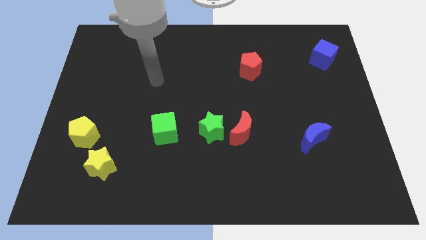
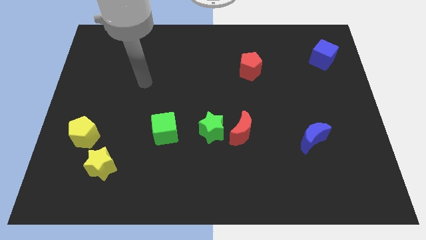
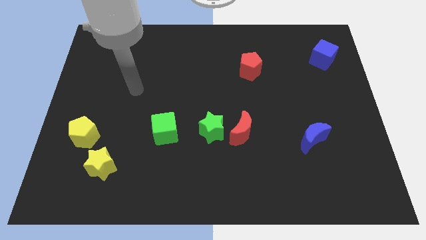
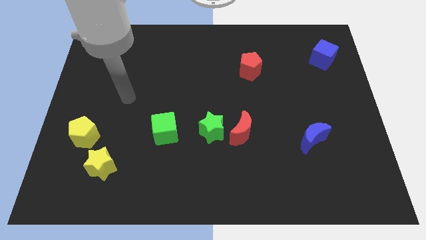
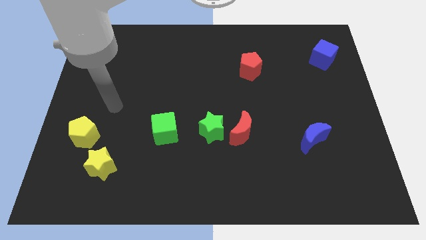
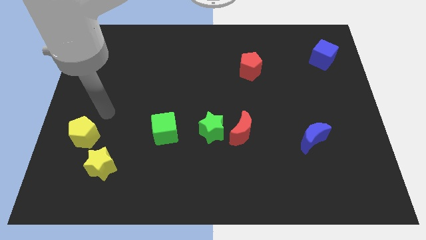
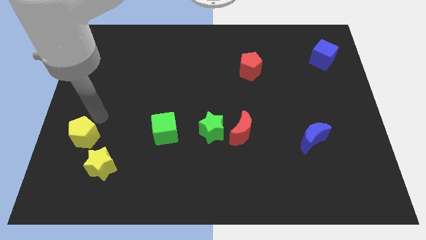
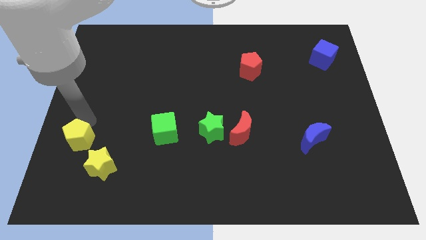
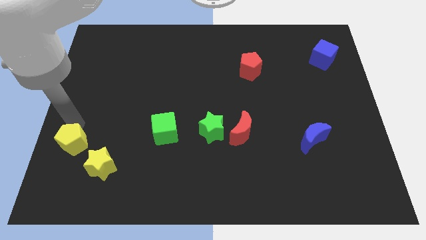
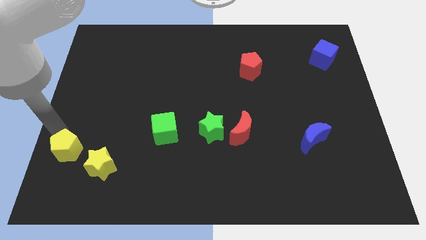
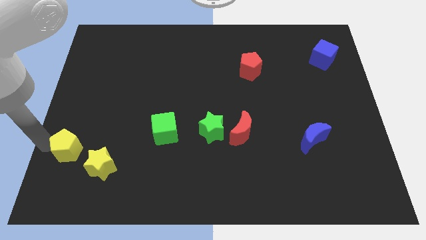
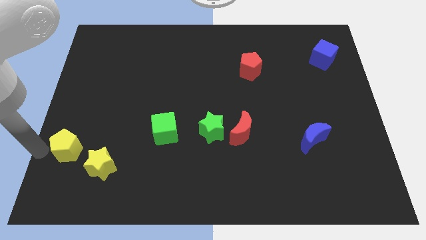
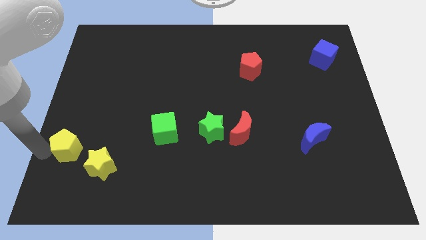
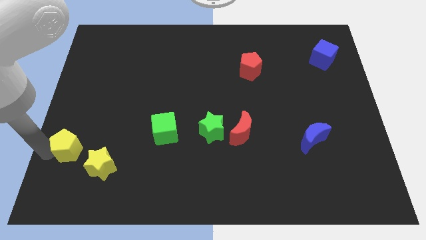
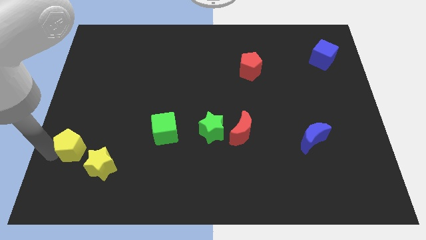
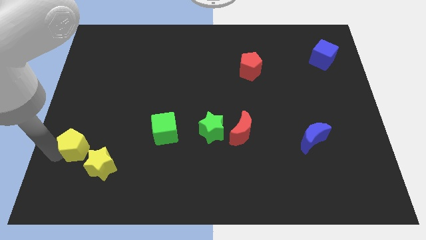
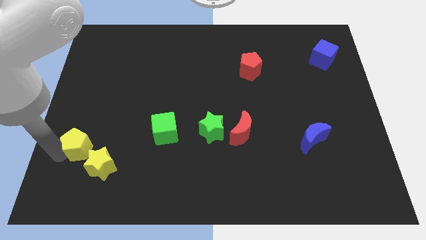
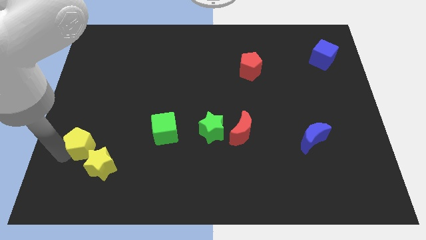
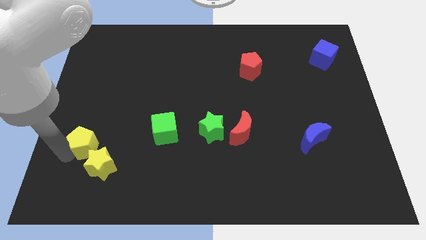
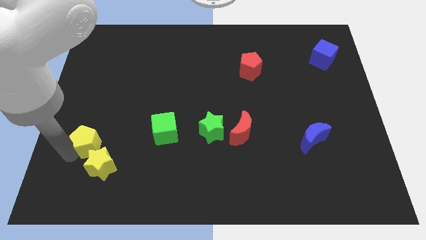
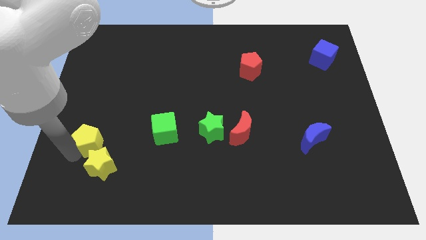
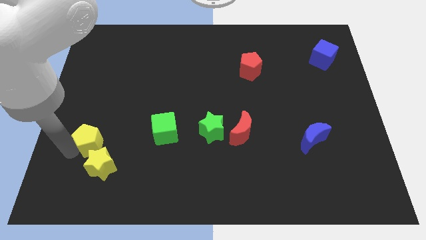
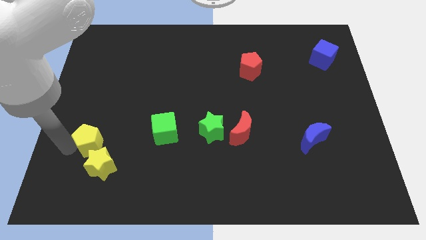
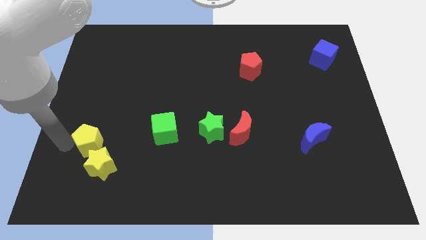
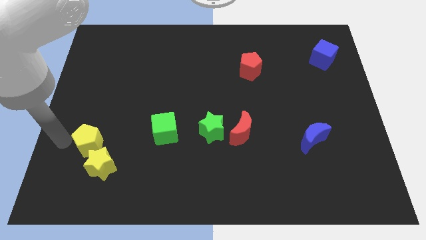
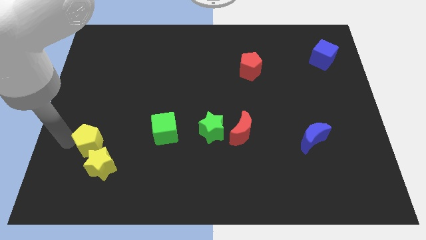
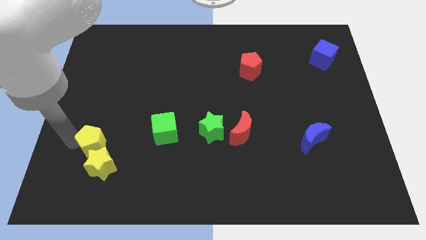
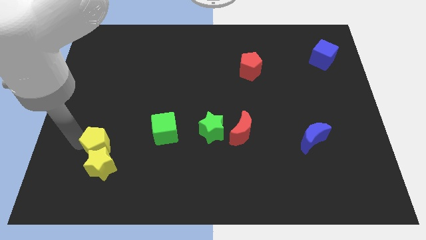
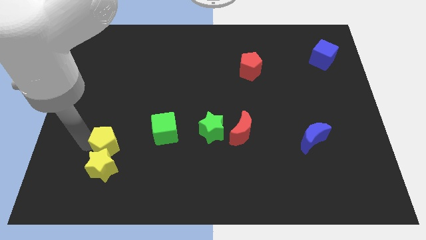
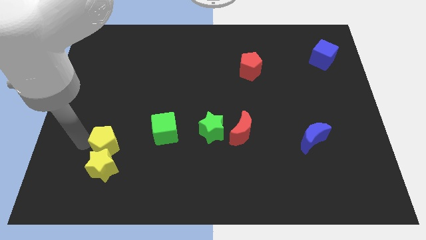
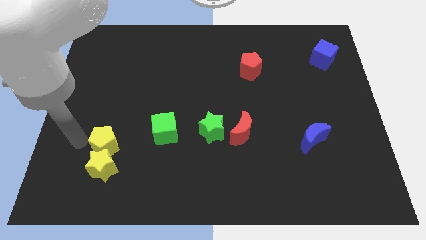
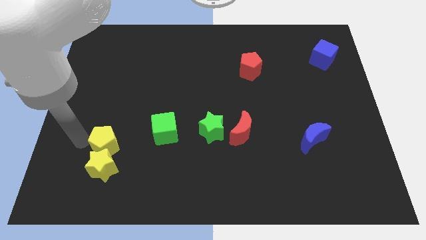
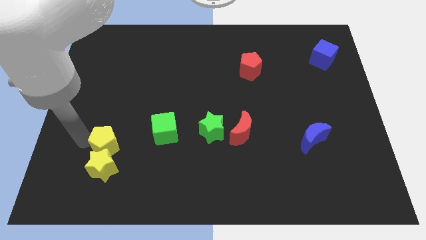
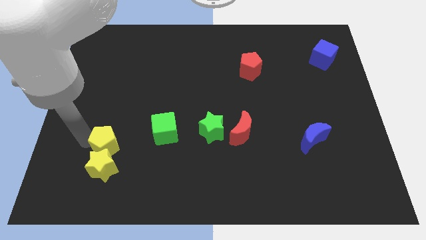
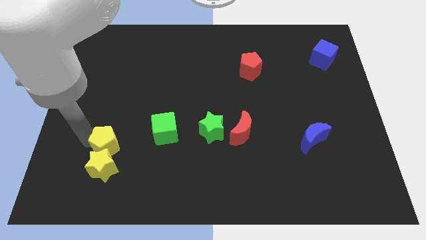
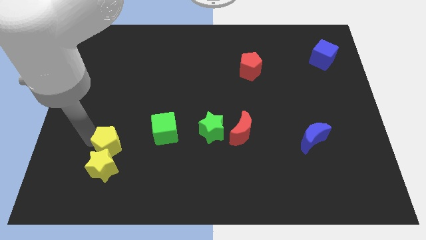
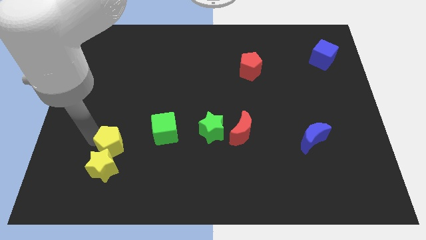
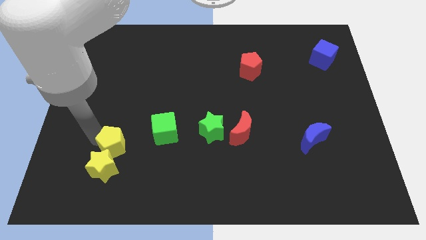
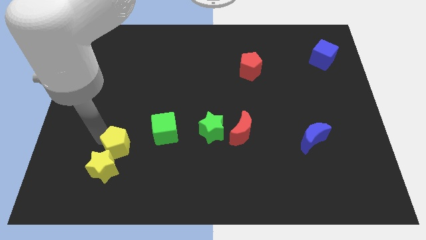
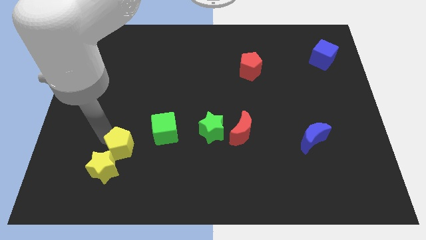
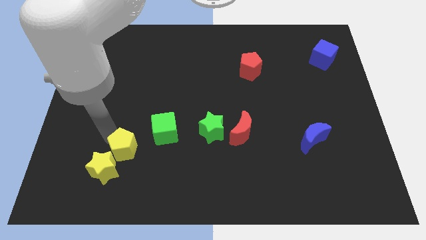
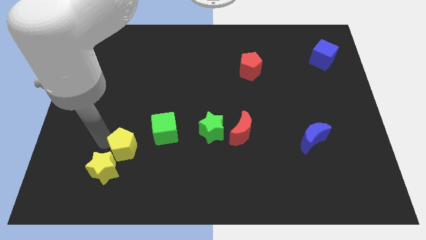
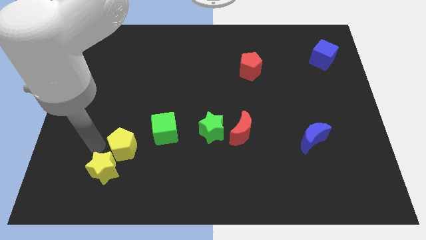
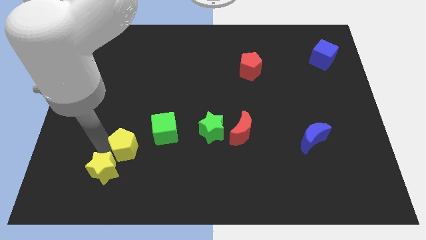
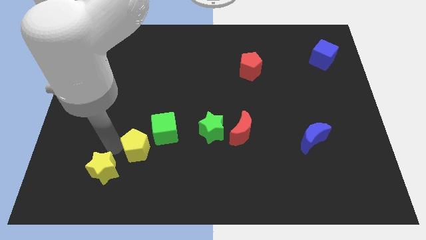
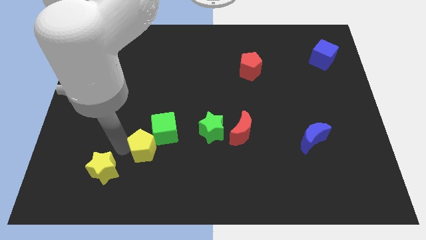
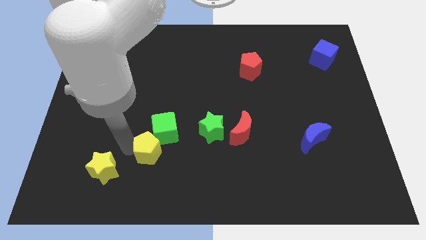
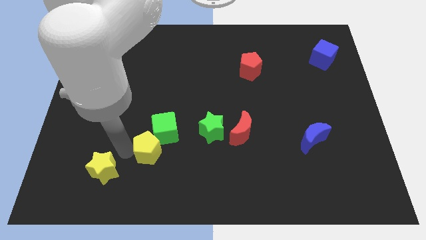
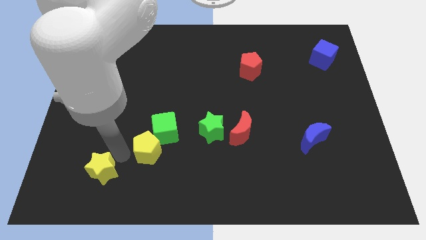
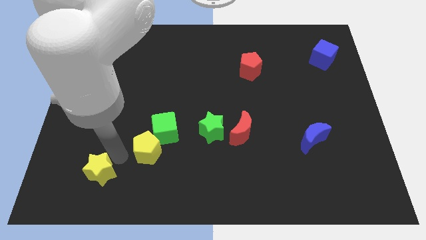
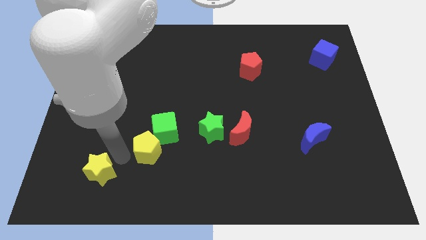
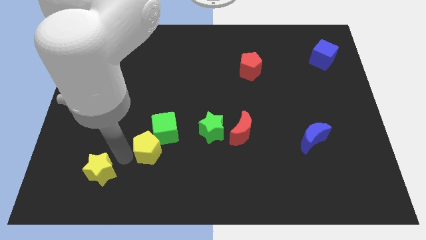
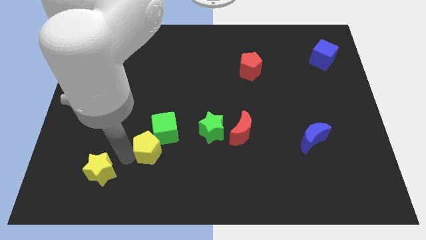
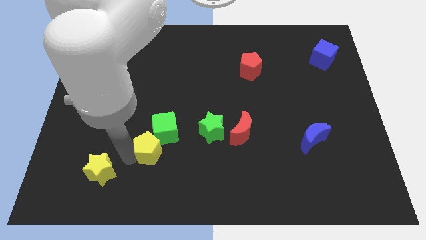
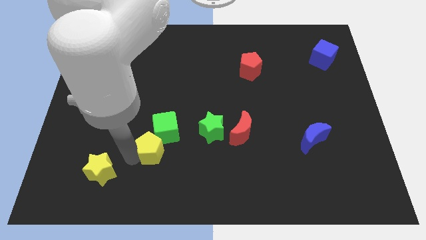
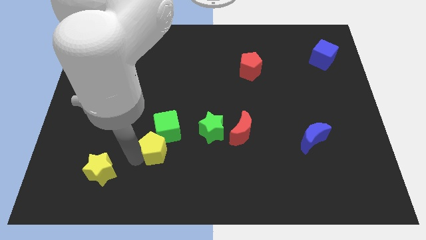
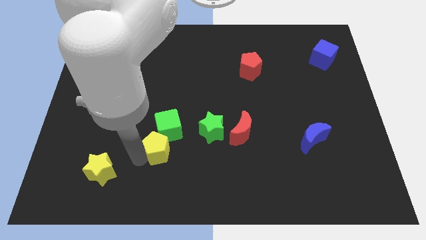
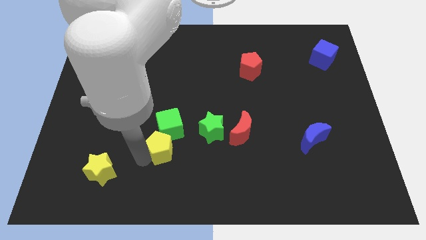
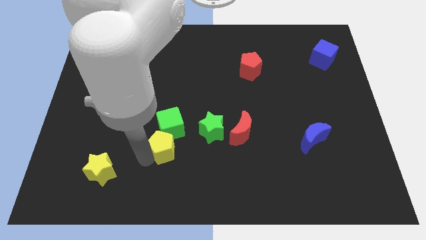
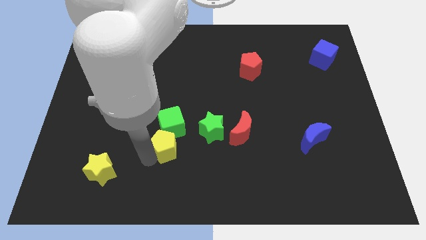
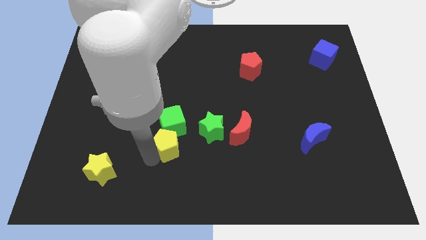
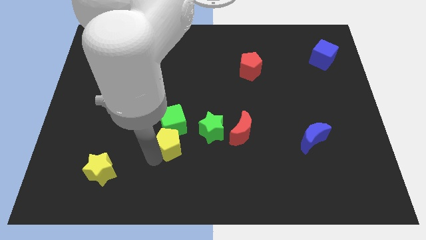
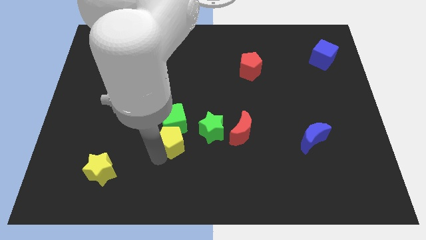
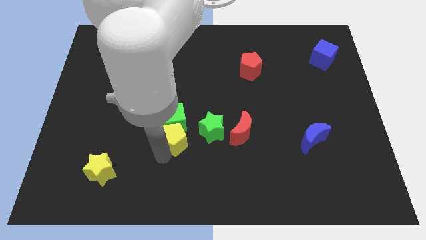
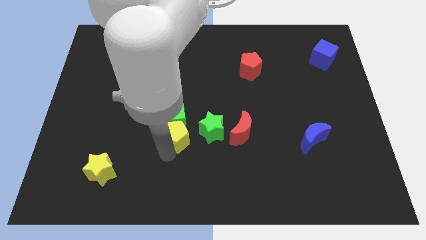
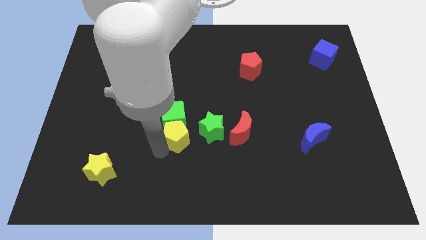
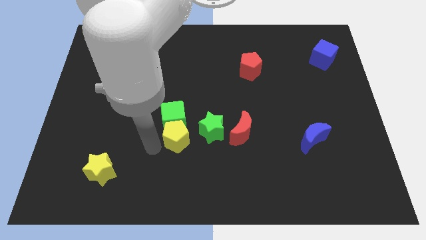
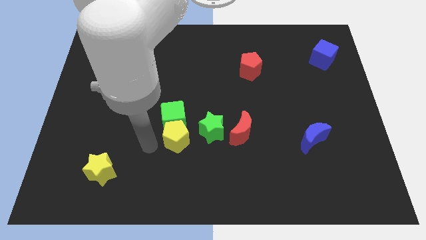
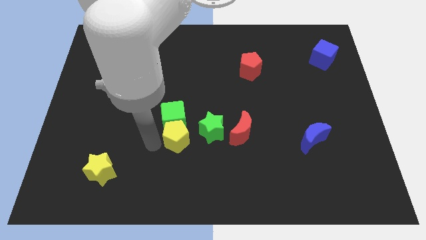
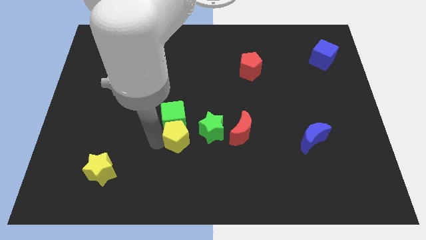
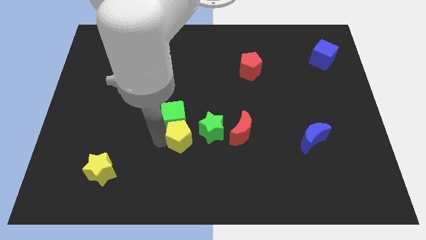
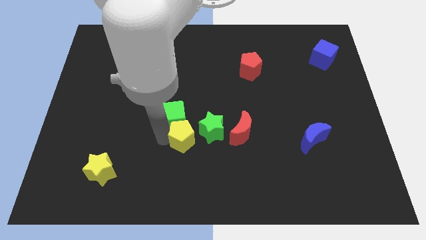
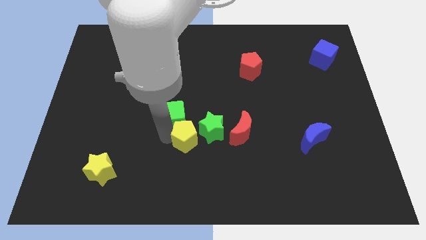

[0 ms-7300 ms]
put the yellow pentagon next to the green star
